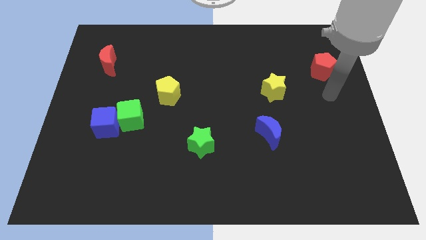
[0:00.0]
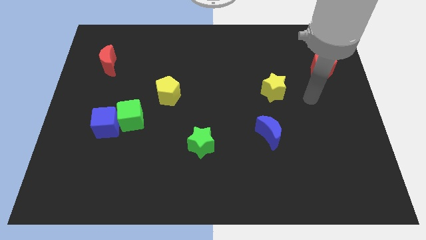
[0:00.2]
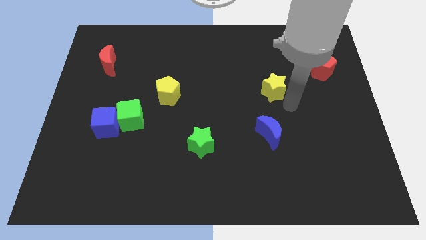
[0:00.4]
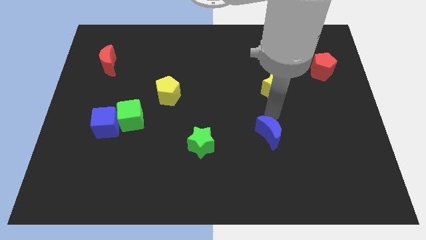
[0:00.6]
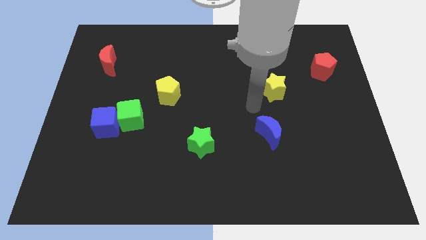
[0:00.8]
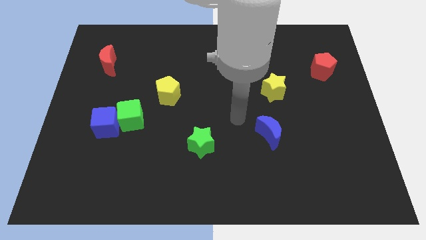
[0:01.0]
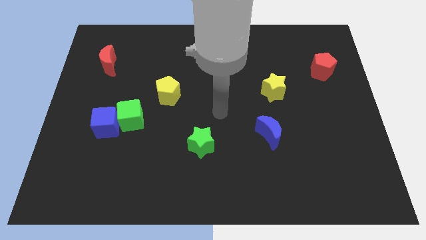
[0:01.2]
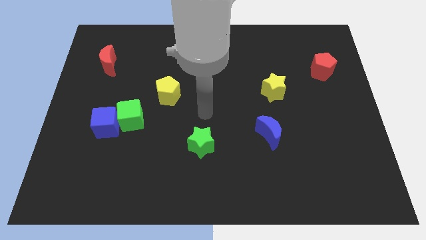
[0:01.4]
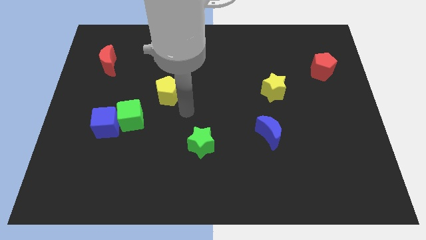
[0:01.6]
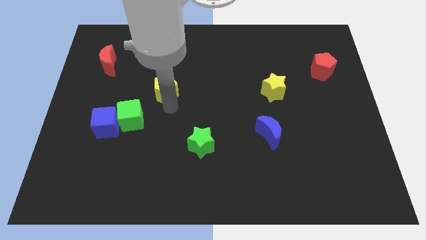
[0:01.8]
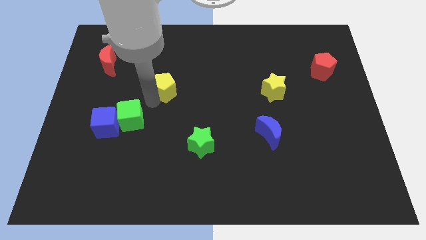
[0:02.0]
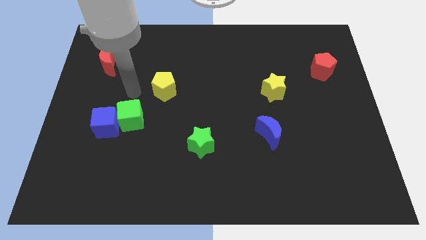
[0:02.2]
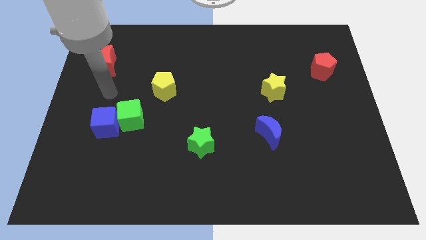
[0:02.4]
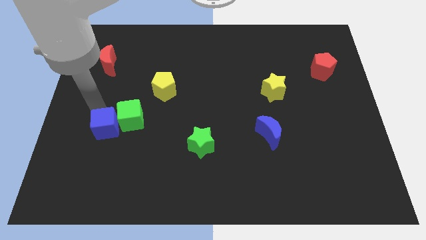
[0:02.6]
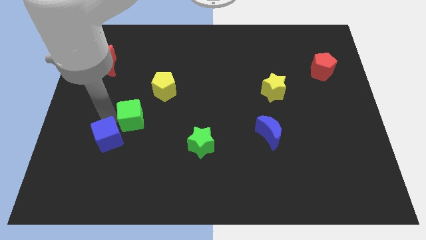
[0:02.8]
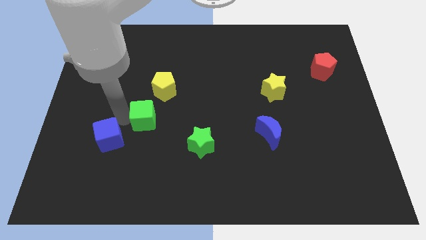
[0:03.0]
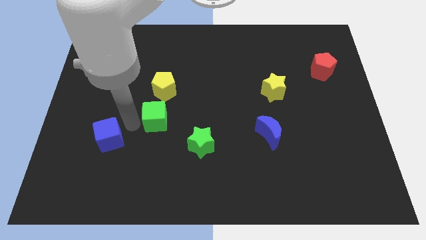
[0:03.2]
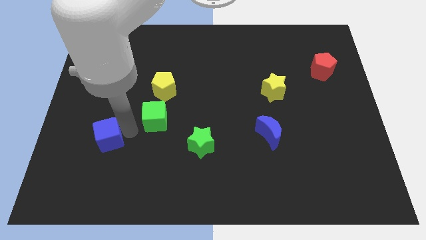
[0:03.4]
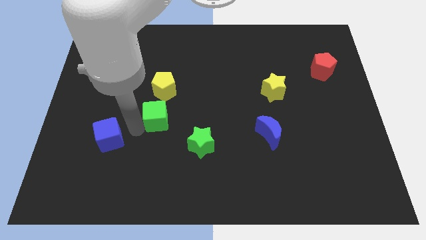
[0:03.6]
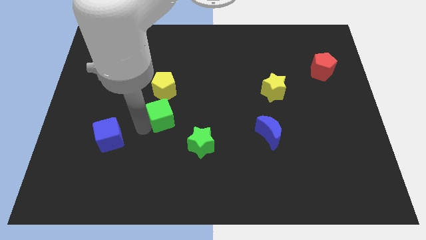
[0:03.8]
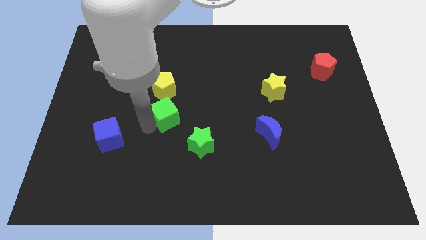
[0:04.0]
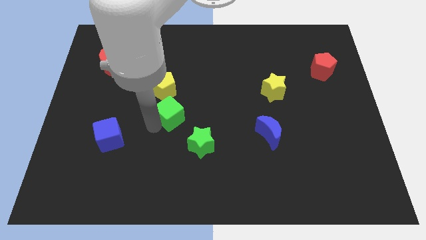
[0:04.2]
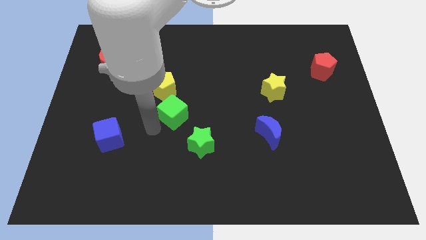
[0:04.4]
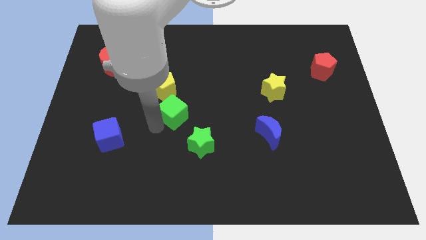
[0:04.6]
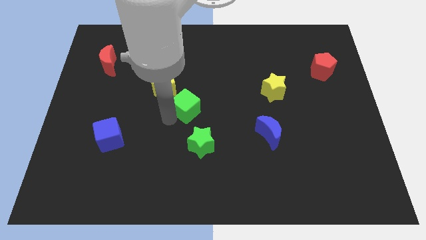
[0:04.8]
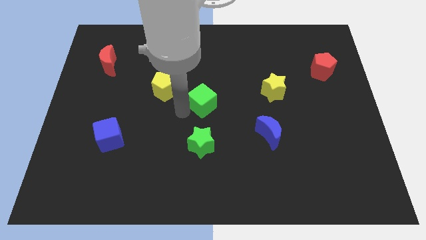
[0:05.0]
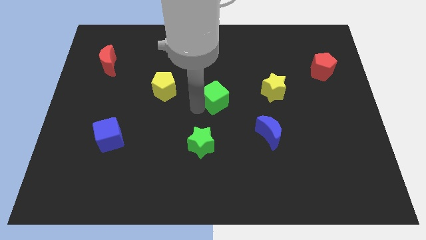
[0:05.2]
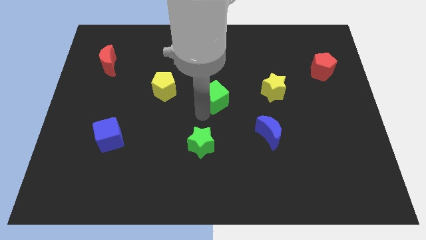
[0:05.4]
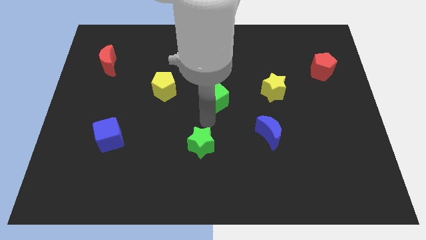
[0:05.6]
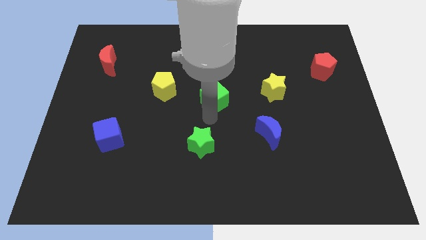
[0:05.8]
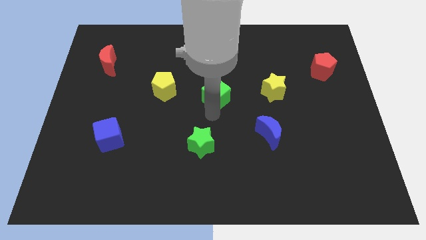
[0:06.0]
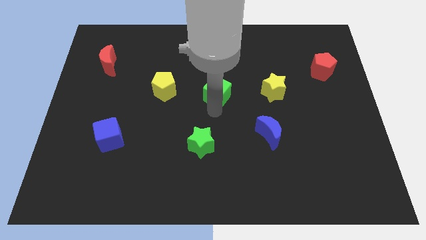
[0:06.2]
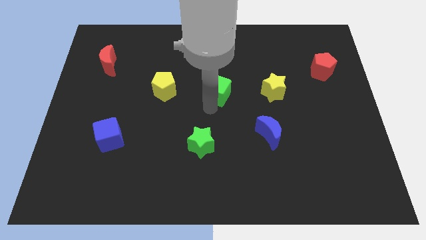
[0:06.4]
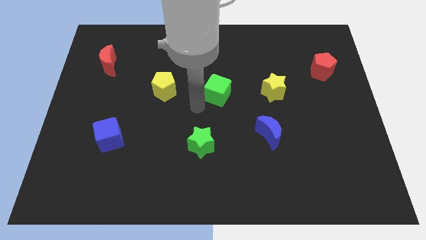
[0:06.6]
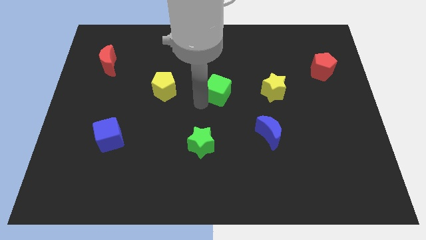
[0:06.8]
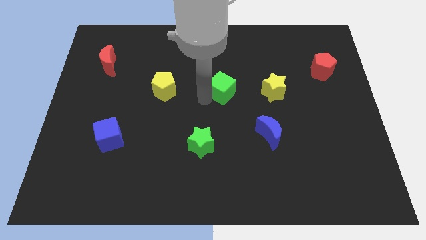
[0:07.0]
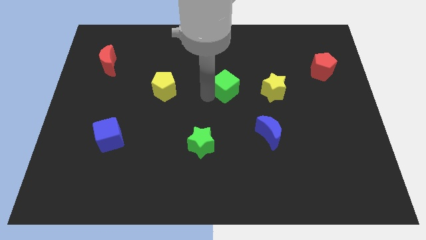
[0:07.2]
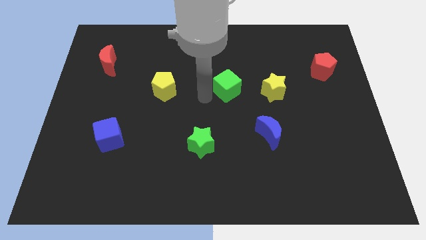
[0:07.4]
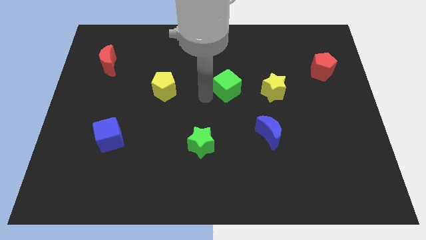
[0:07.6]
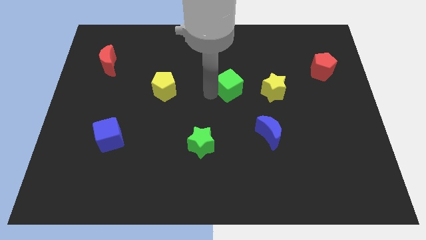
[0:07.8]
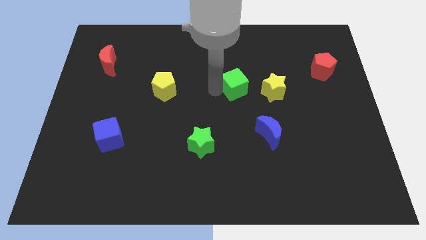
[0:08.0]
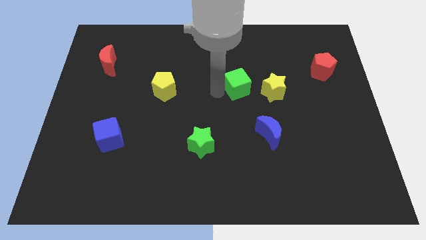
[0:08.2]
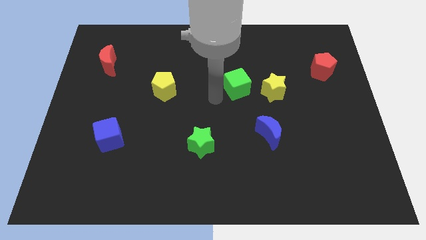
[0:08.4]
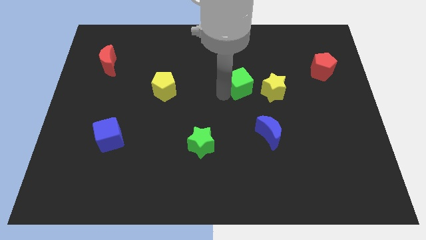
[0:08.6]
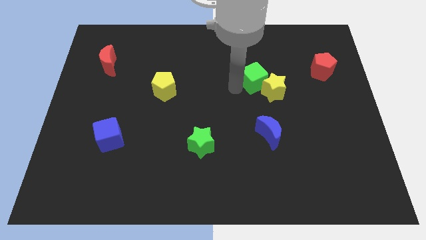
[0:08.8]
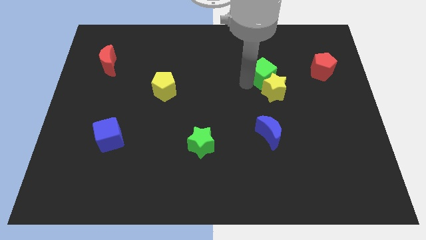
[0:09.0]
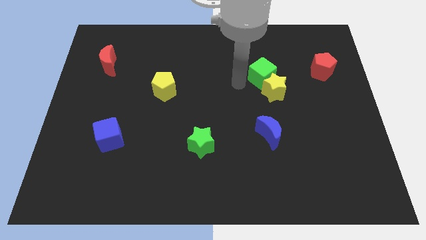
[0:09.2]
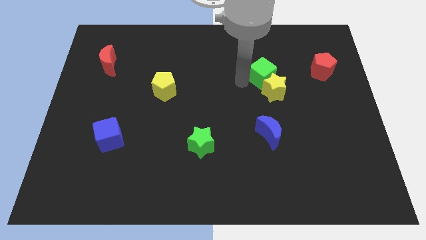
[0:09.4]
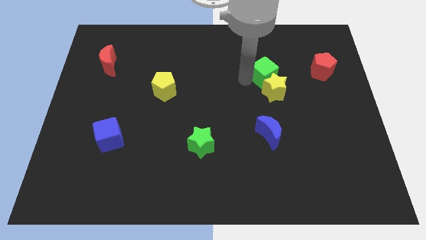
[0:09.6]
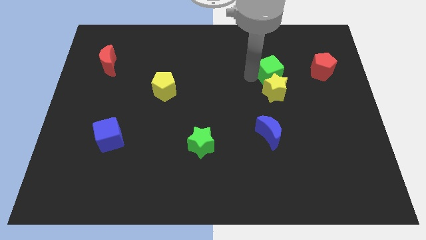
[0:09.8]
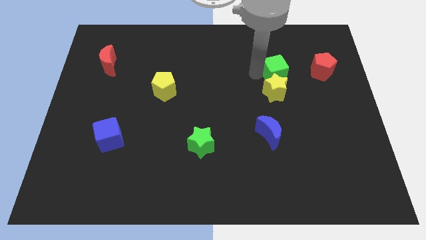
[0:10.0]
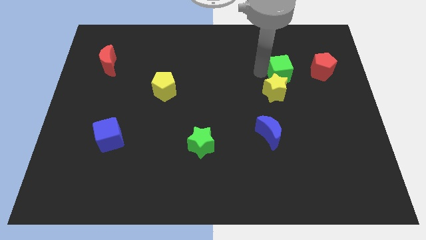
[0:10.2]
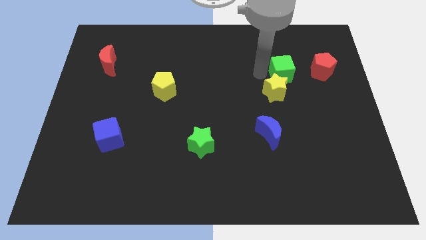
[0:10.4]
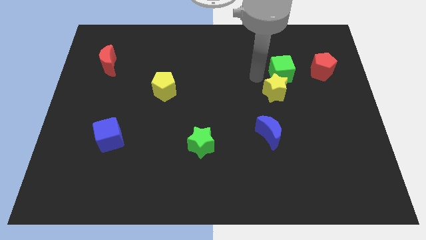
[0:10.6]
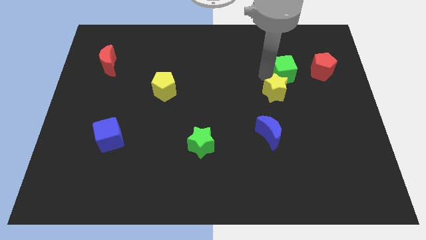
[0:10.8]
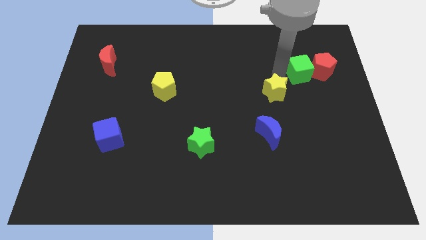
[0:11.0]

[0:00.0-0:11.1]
put the green cube to the red pentagon

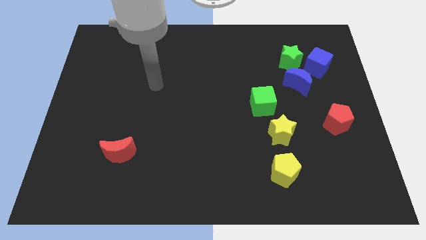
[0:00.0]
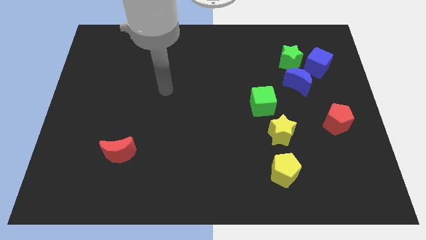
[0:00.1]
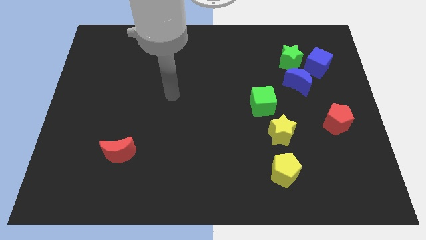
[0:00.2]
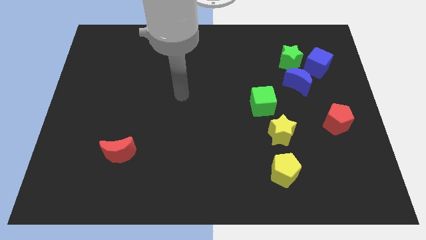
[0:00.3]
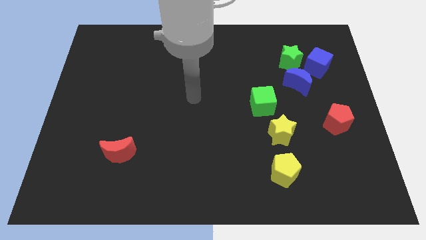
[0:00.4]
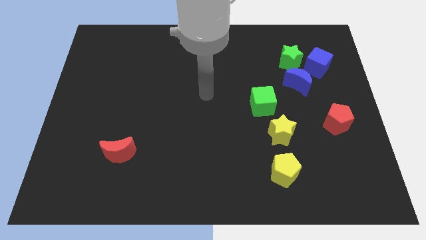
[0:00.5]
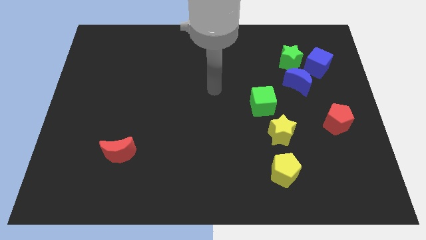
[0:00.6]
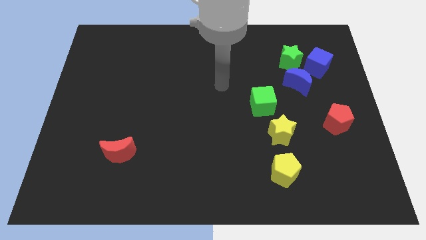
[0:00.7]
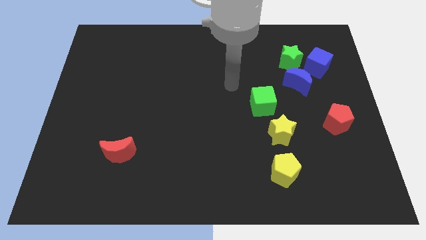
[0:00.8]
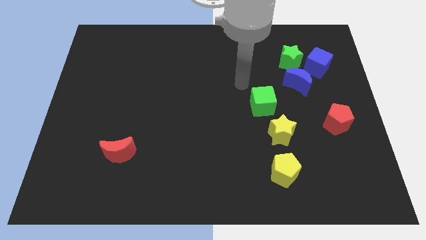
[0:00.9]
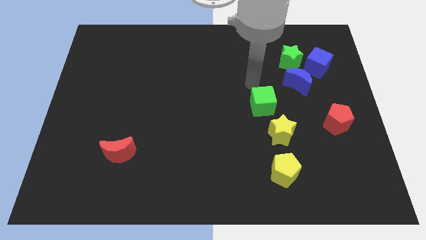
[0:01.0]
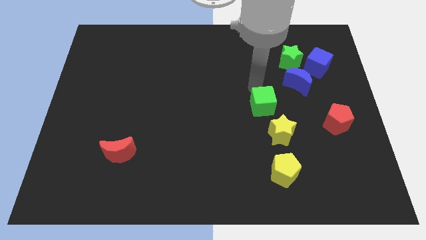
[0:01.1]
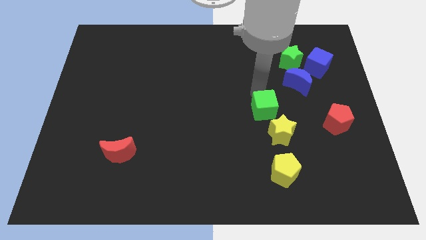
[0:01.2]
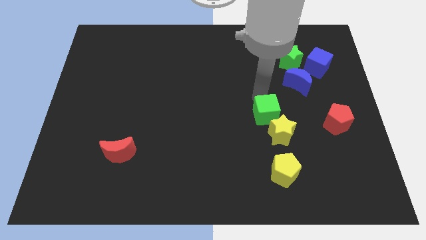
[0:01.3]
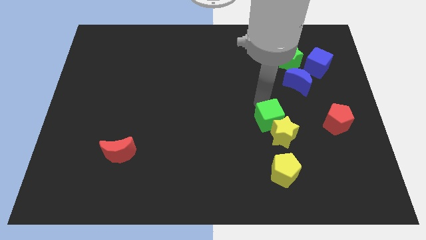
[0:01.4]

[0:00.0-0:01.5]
push the green cube close to the yellow star
